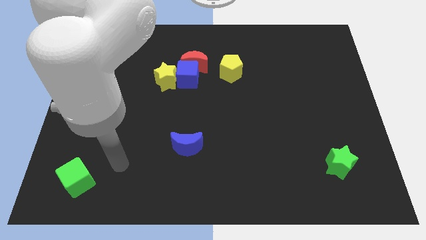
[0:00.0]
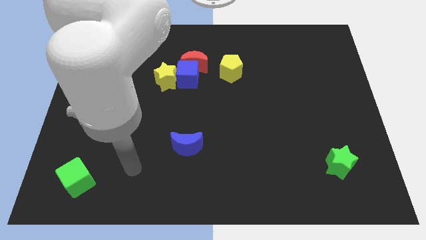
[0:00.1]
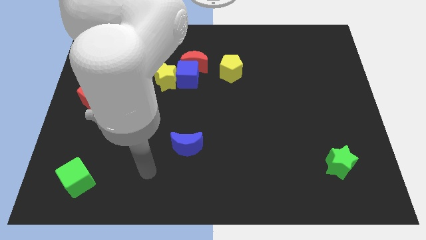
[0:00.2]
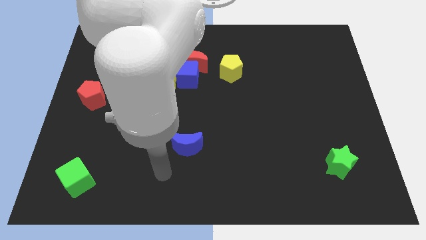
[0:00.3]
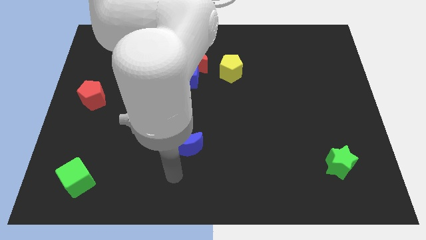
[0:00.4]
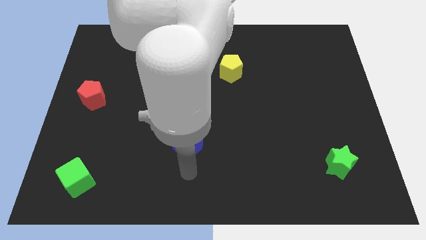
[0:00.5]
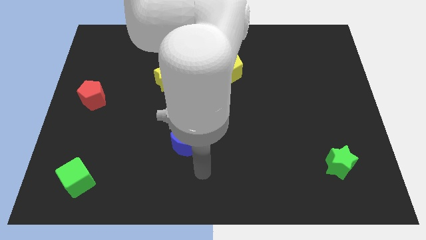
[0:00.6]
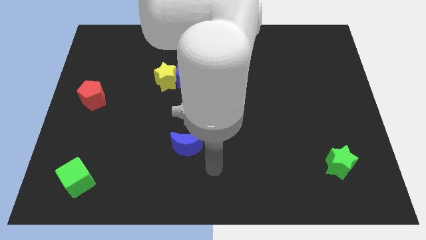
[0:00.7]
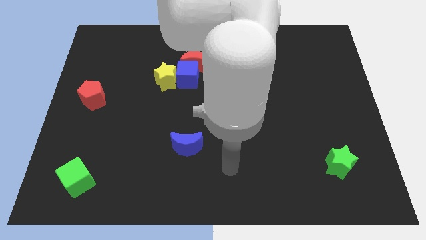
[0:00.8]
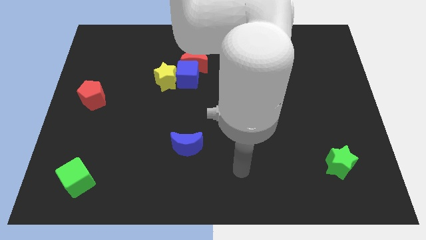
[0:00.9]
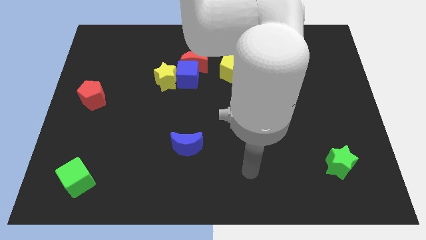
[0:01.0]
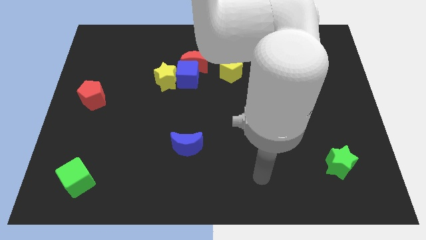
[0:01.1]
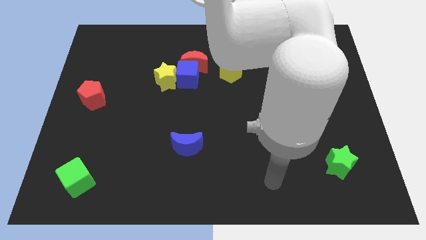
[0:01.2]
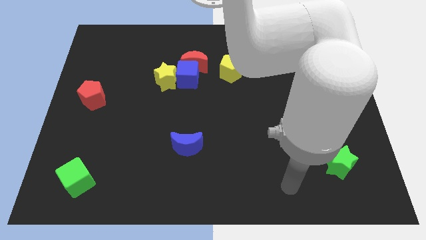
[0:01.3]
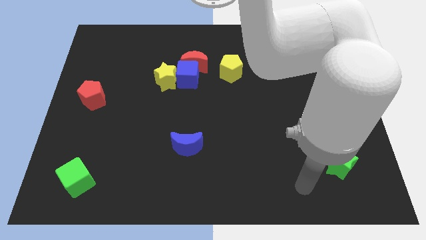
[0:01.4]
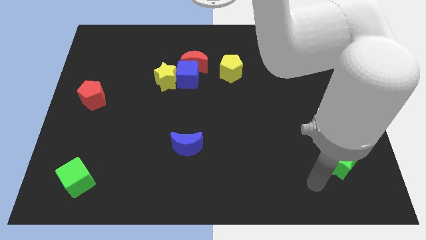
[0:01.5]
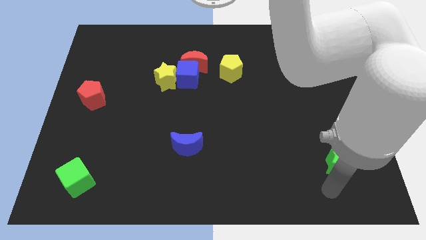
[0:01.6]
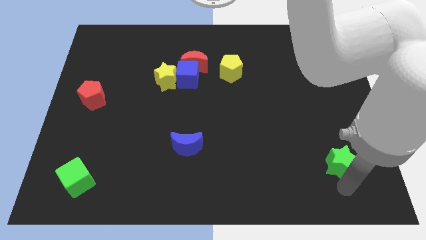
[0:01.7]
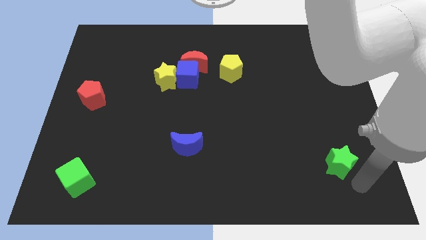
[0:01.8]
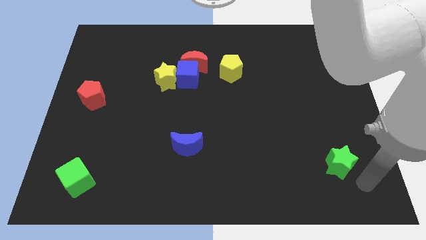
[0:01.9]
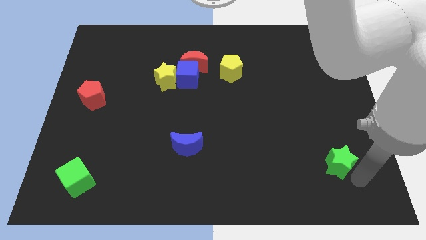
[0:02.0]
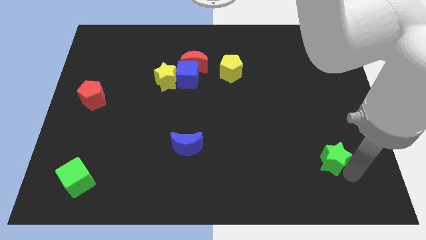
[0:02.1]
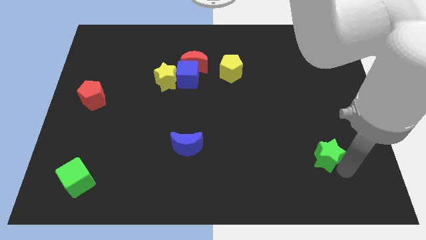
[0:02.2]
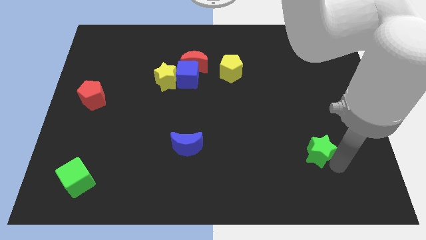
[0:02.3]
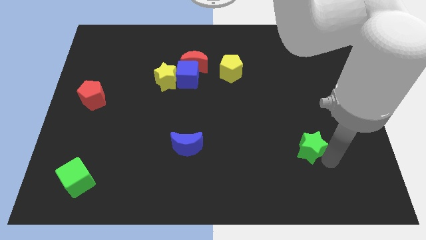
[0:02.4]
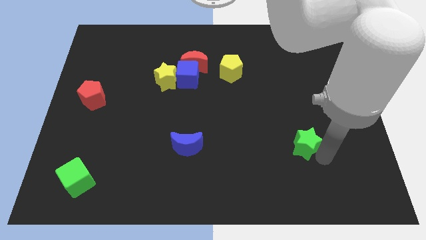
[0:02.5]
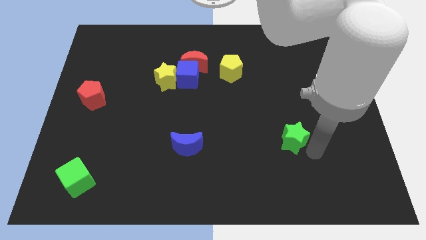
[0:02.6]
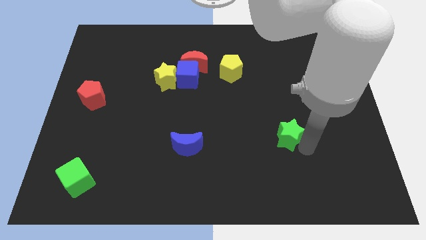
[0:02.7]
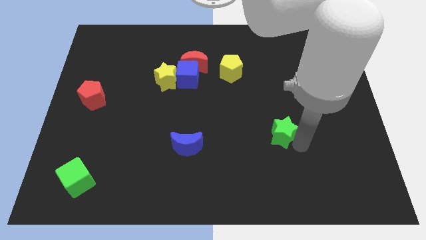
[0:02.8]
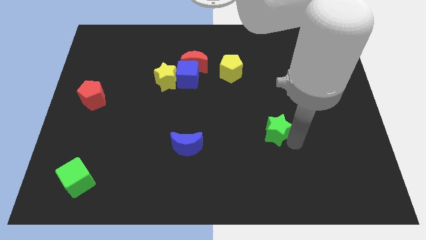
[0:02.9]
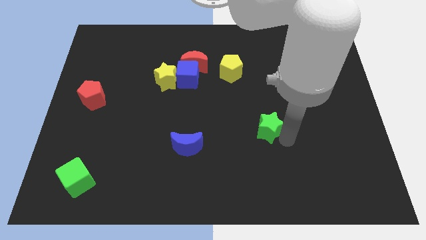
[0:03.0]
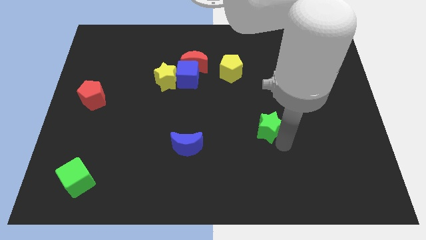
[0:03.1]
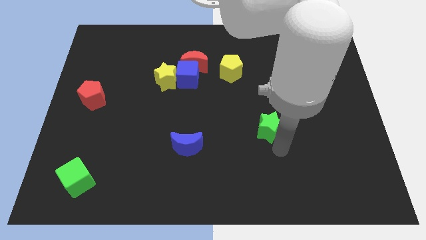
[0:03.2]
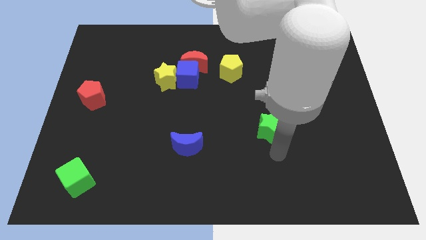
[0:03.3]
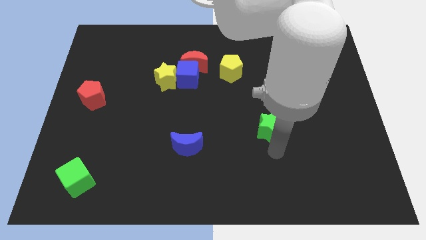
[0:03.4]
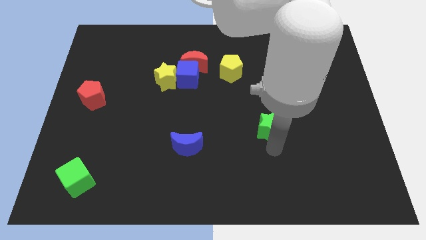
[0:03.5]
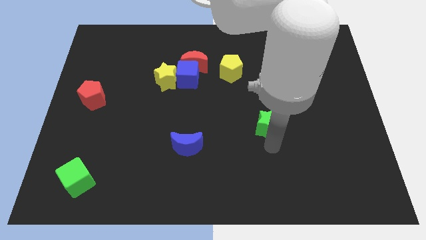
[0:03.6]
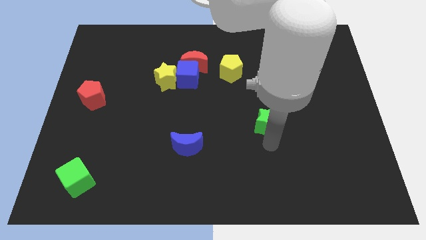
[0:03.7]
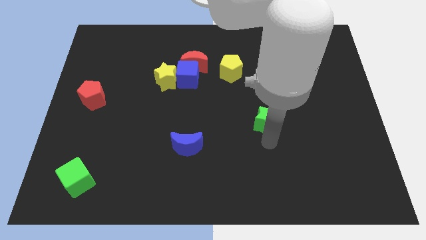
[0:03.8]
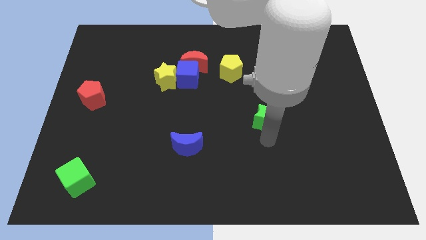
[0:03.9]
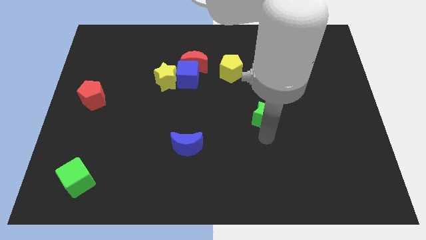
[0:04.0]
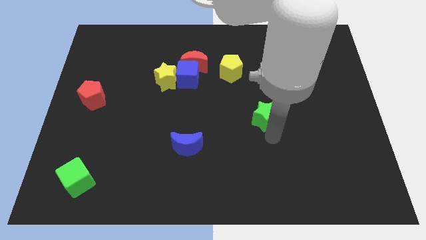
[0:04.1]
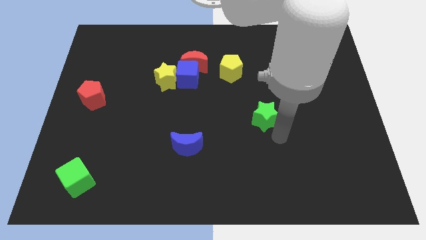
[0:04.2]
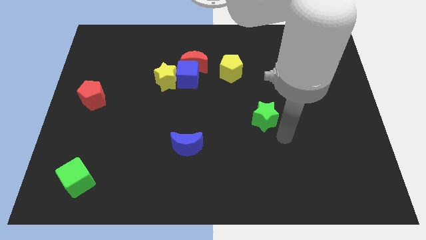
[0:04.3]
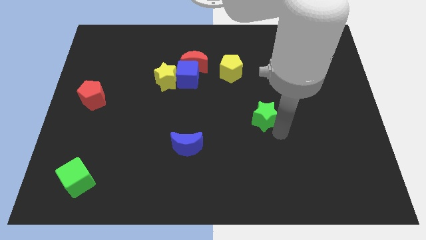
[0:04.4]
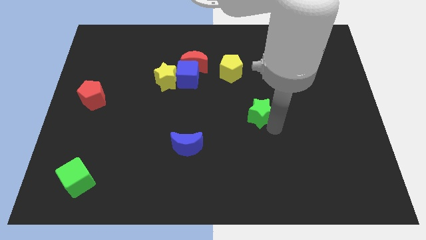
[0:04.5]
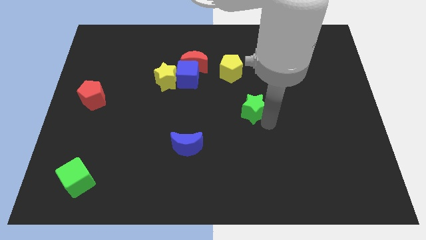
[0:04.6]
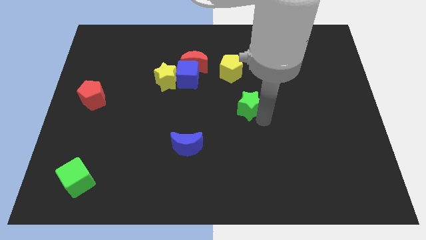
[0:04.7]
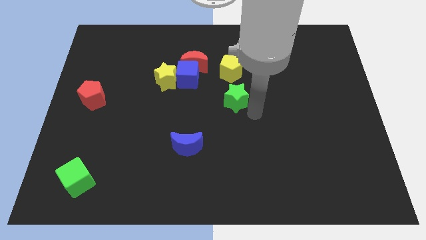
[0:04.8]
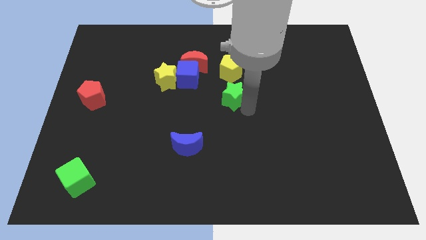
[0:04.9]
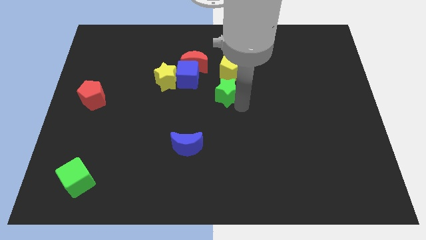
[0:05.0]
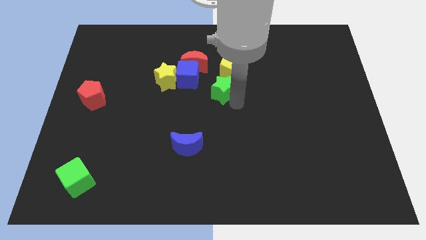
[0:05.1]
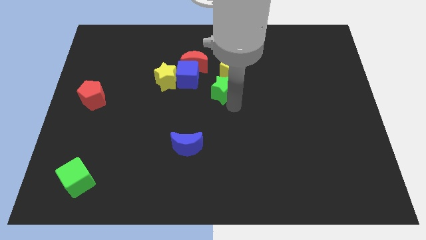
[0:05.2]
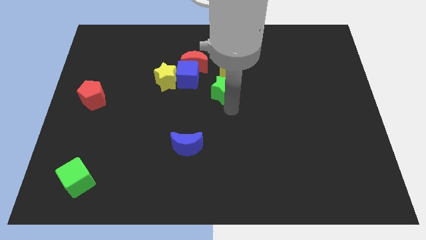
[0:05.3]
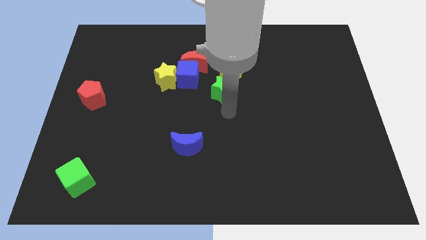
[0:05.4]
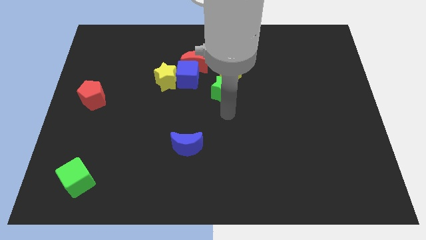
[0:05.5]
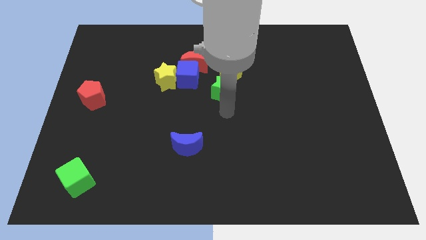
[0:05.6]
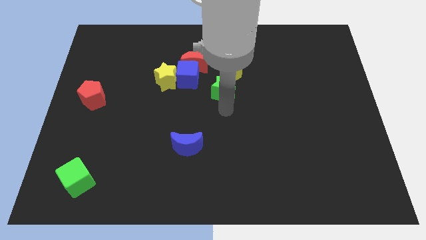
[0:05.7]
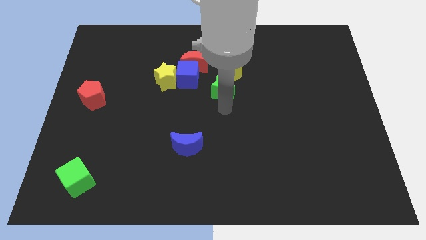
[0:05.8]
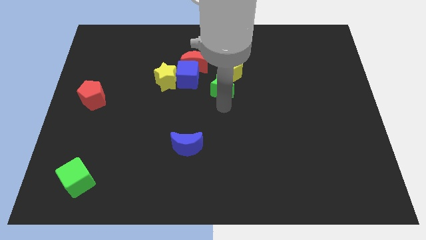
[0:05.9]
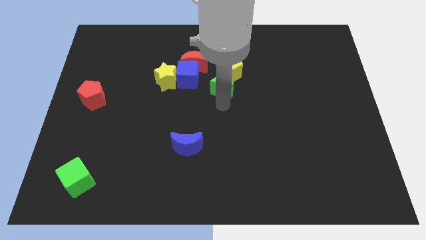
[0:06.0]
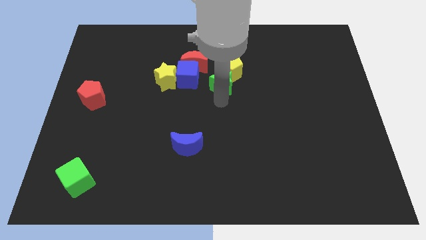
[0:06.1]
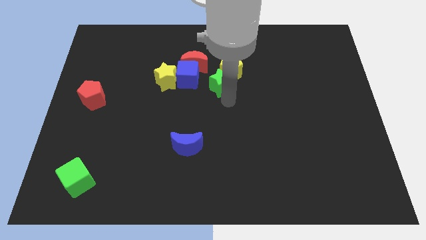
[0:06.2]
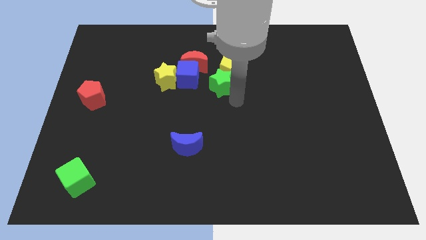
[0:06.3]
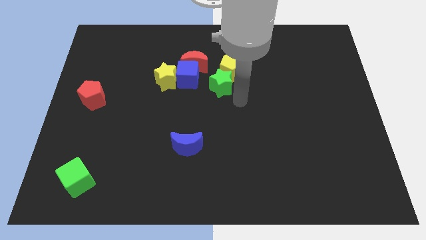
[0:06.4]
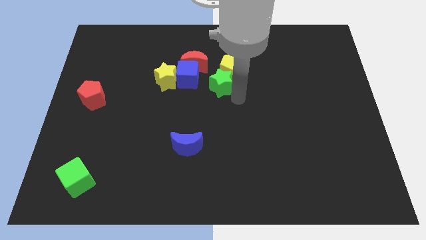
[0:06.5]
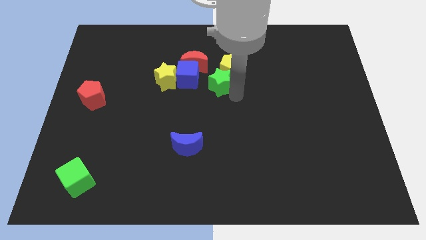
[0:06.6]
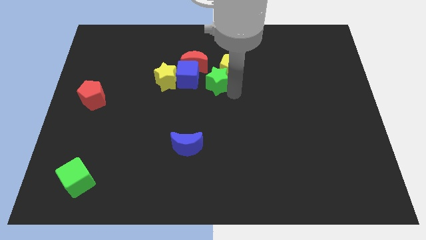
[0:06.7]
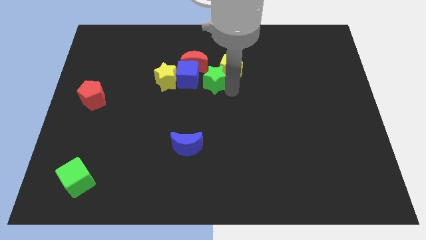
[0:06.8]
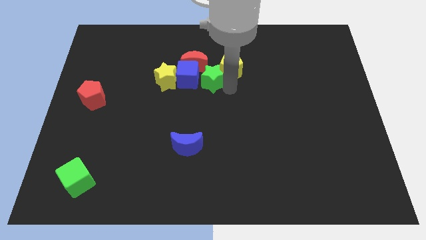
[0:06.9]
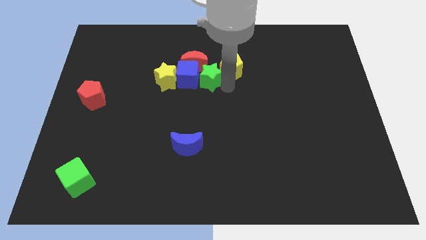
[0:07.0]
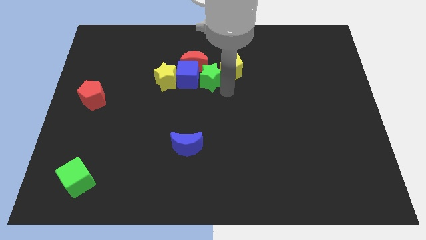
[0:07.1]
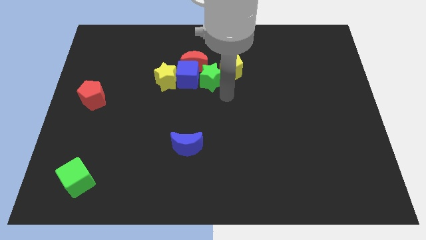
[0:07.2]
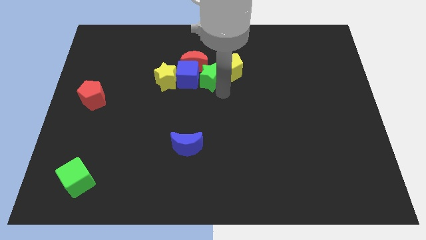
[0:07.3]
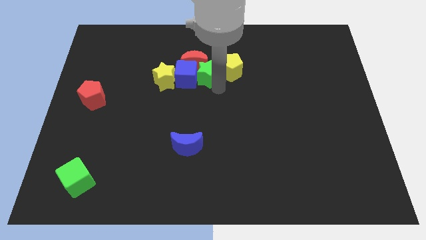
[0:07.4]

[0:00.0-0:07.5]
push the green star next to the red moon

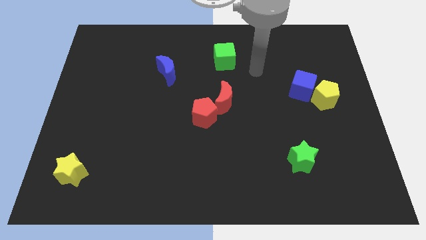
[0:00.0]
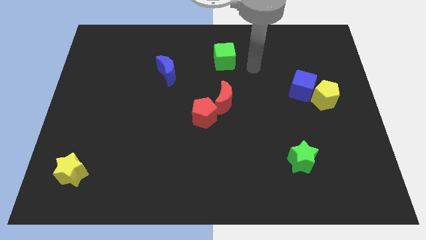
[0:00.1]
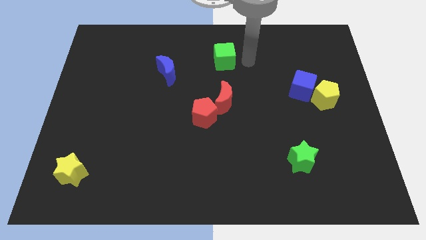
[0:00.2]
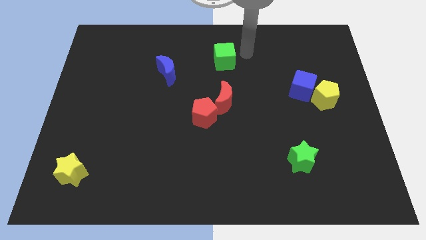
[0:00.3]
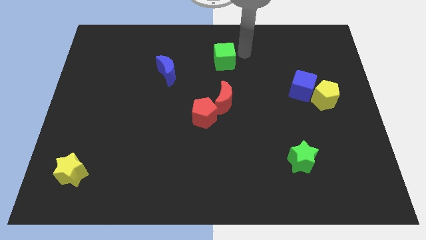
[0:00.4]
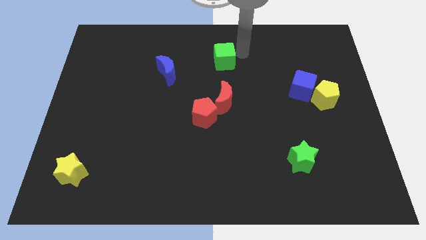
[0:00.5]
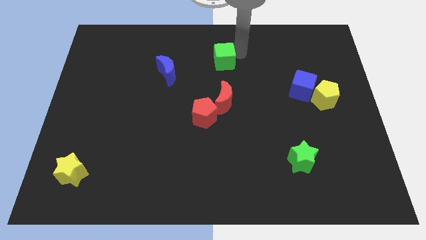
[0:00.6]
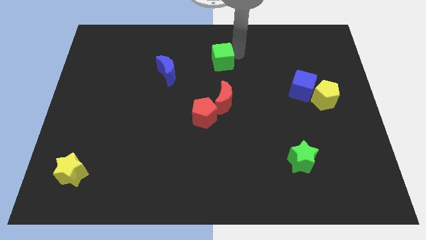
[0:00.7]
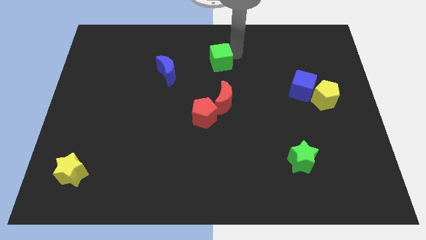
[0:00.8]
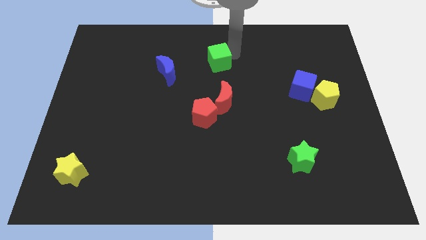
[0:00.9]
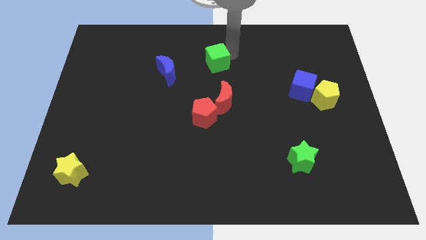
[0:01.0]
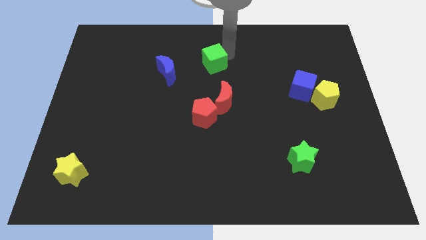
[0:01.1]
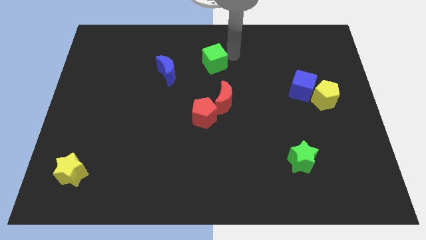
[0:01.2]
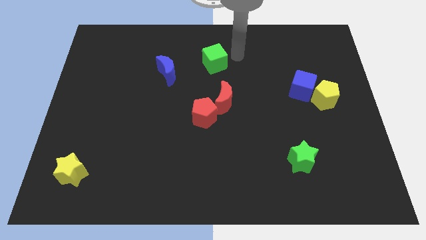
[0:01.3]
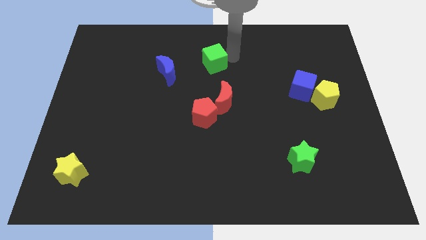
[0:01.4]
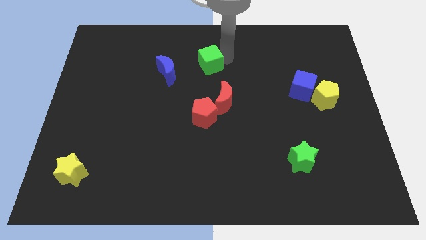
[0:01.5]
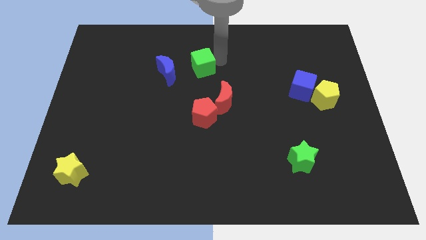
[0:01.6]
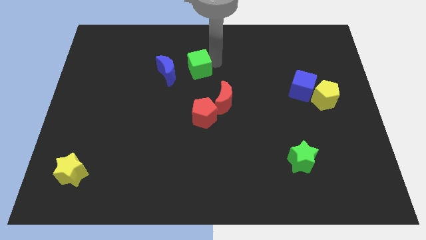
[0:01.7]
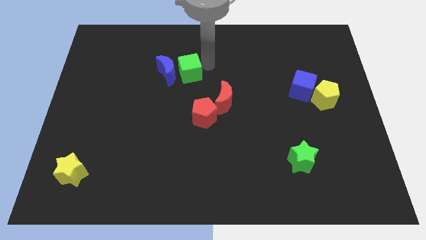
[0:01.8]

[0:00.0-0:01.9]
put the green cube close to the blue moon
